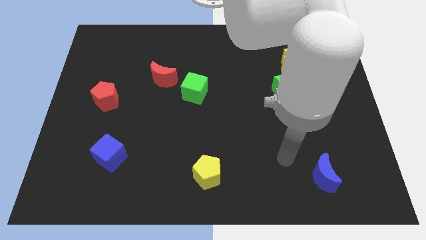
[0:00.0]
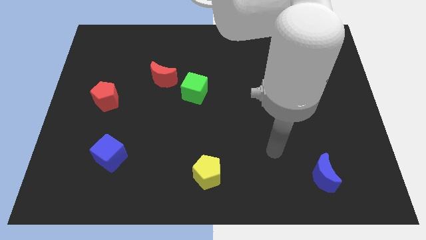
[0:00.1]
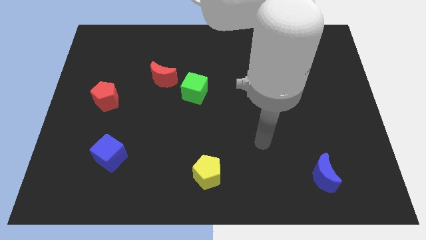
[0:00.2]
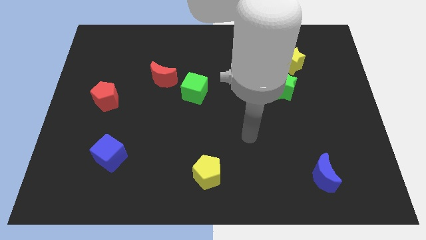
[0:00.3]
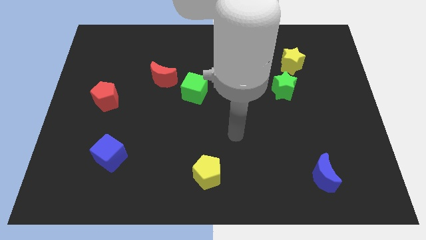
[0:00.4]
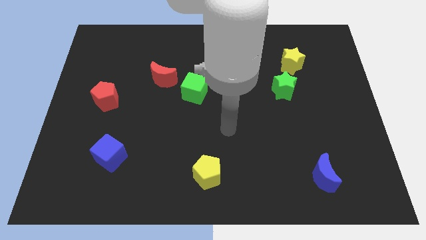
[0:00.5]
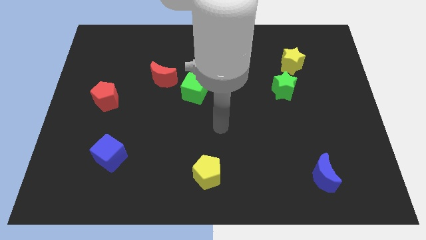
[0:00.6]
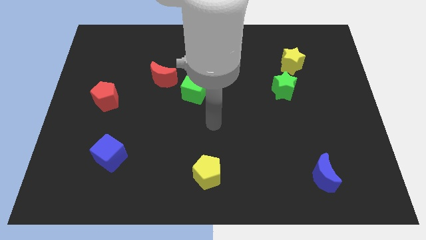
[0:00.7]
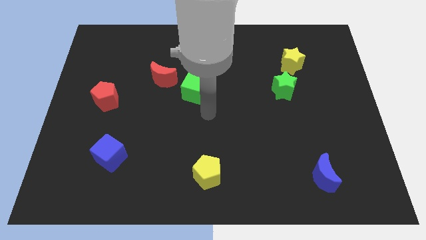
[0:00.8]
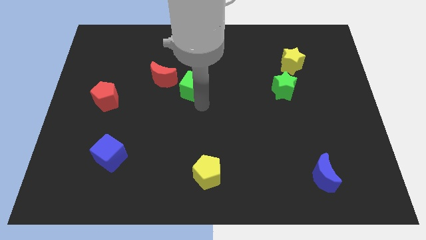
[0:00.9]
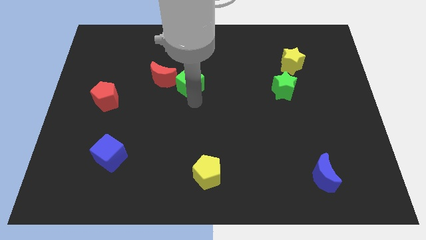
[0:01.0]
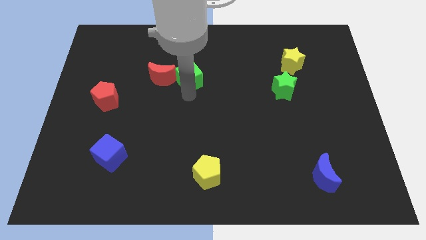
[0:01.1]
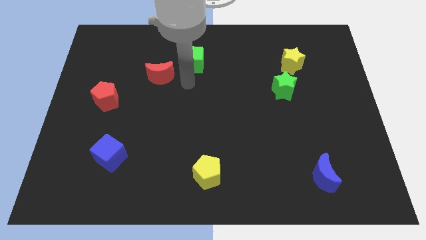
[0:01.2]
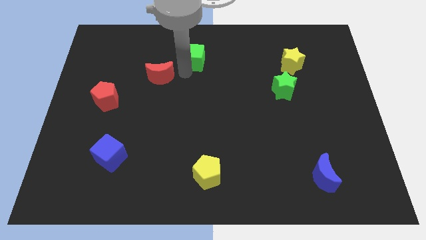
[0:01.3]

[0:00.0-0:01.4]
move the red moon away from the green cube
